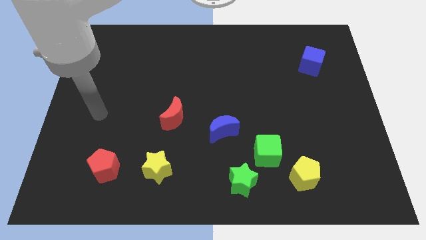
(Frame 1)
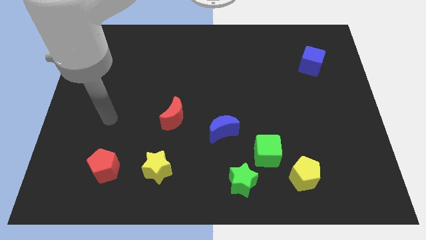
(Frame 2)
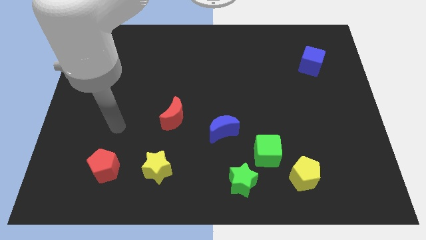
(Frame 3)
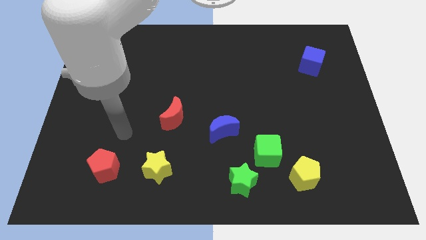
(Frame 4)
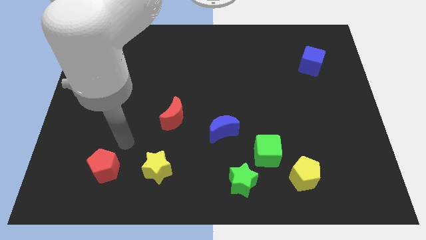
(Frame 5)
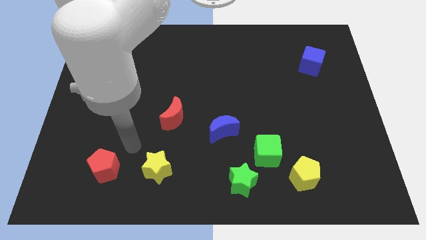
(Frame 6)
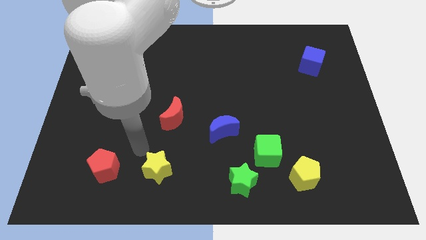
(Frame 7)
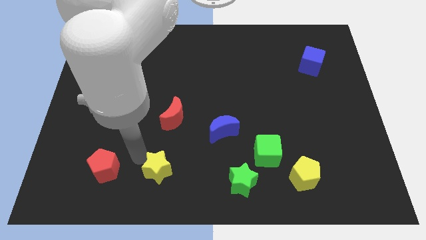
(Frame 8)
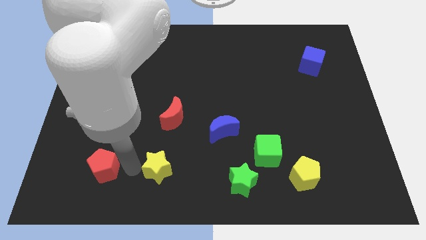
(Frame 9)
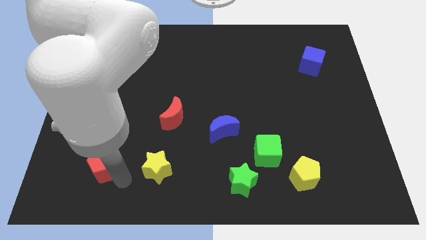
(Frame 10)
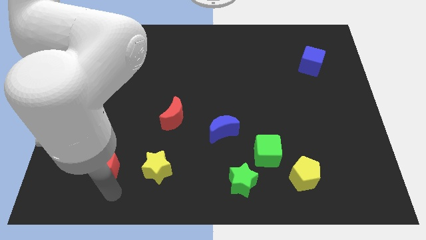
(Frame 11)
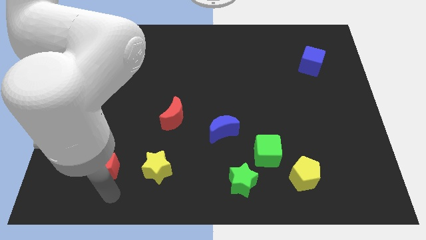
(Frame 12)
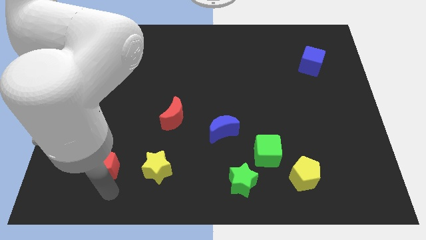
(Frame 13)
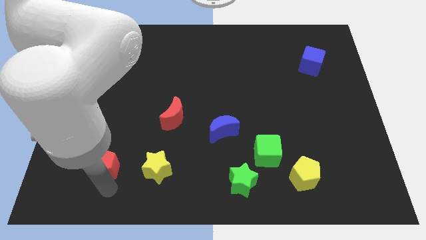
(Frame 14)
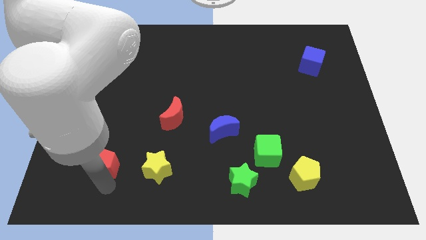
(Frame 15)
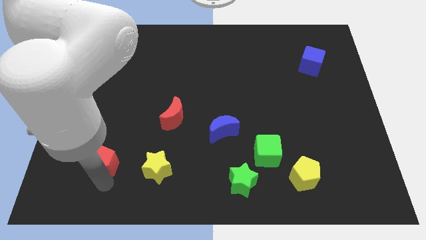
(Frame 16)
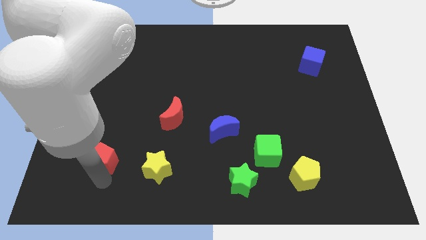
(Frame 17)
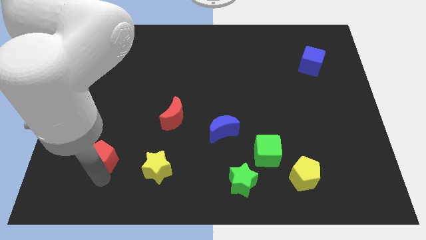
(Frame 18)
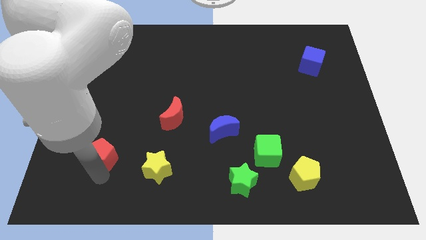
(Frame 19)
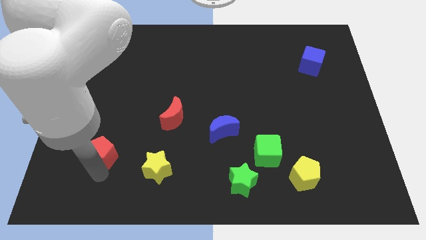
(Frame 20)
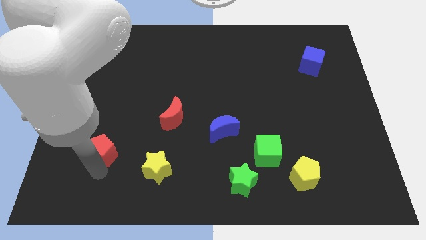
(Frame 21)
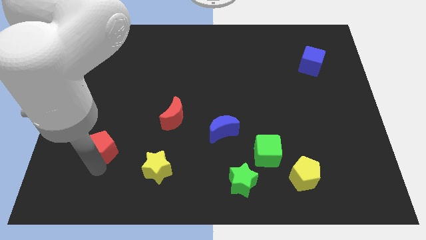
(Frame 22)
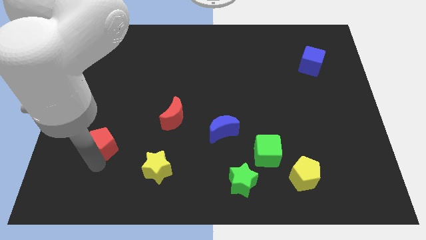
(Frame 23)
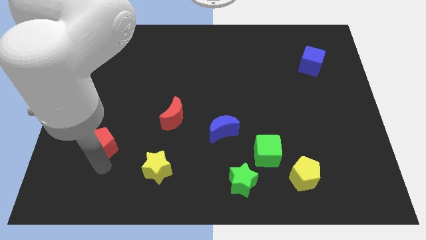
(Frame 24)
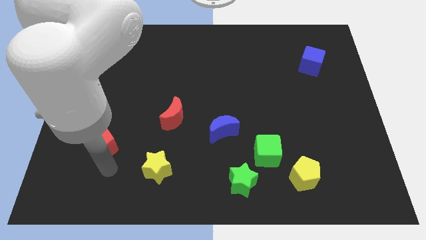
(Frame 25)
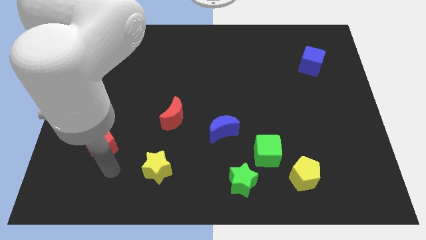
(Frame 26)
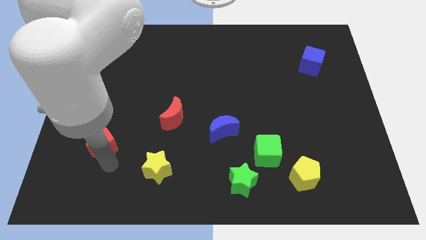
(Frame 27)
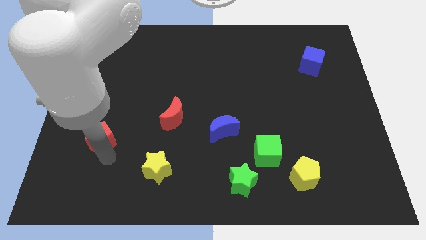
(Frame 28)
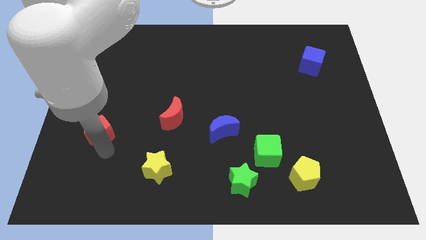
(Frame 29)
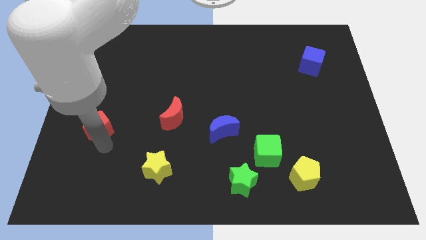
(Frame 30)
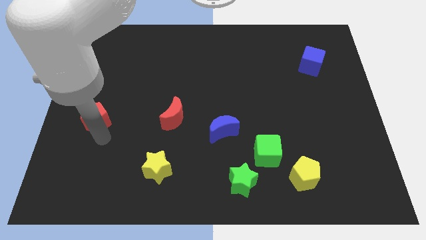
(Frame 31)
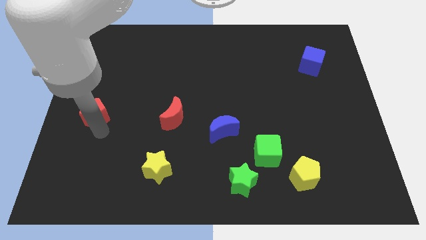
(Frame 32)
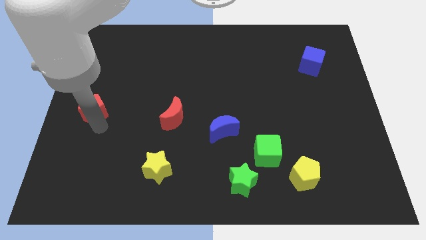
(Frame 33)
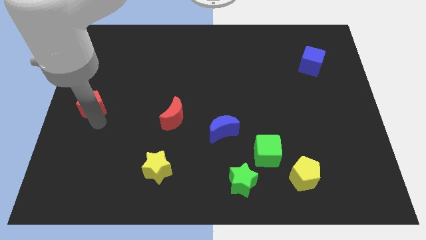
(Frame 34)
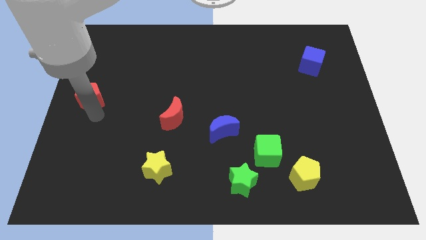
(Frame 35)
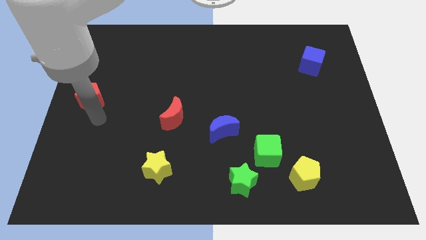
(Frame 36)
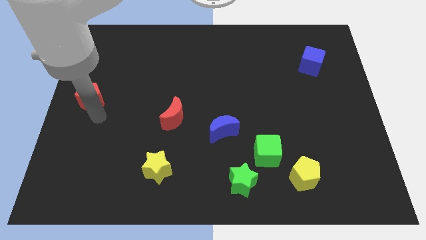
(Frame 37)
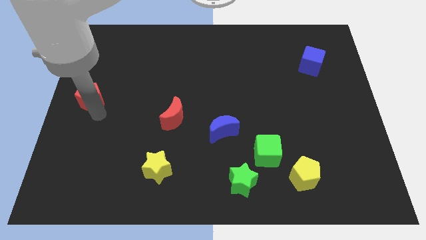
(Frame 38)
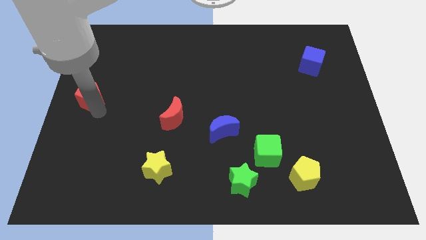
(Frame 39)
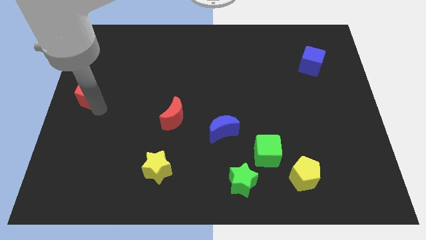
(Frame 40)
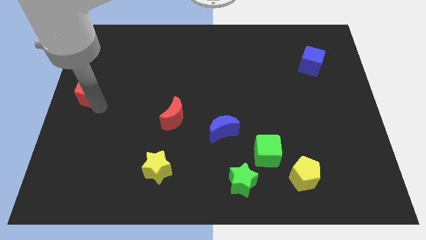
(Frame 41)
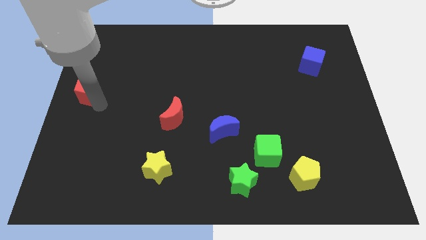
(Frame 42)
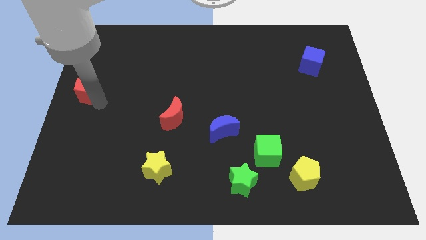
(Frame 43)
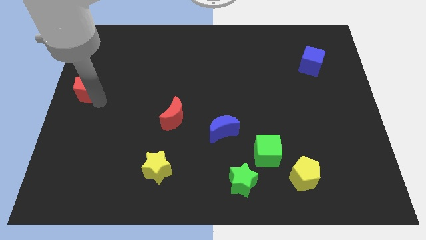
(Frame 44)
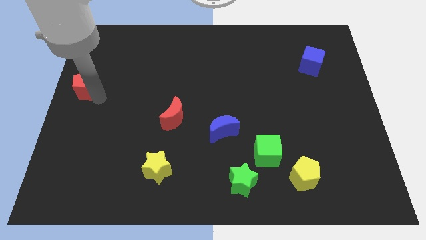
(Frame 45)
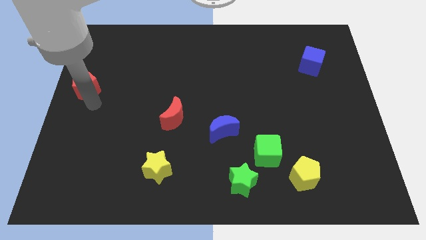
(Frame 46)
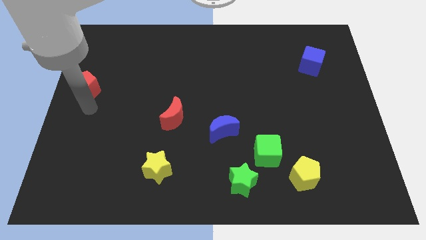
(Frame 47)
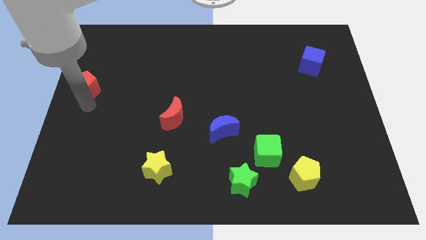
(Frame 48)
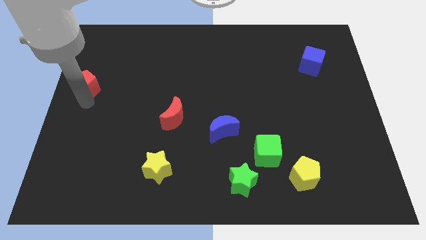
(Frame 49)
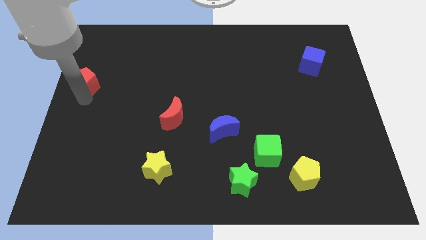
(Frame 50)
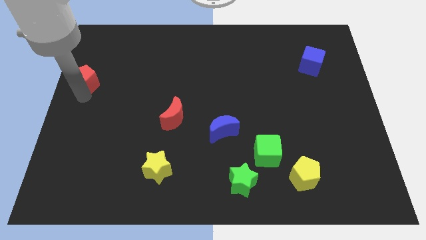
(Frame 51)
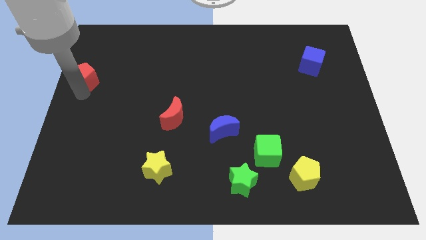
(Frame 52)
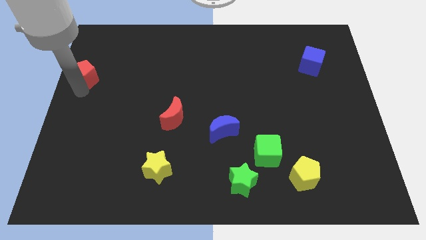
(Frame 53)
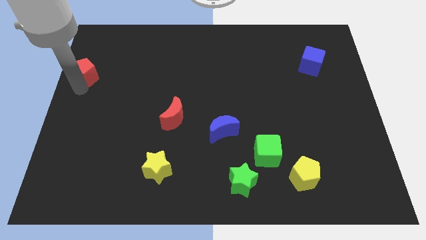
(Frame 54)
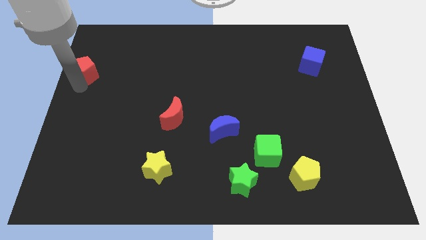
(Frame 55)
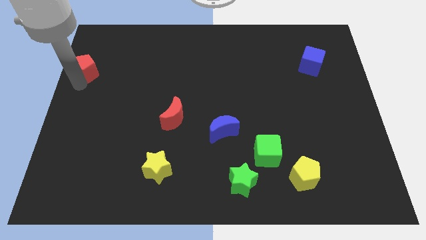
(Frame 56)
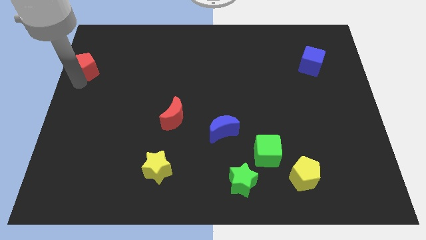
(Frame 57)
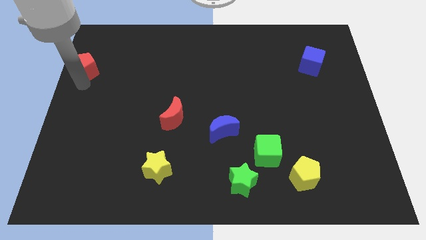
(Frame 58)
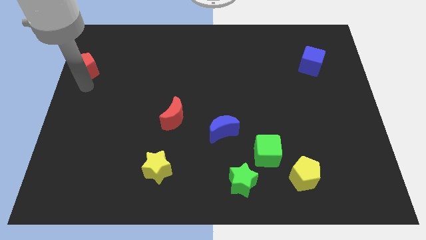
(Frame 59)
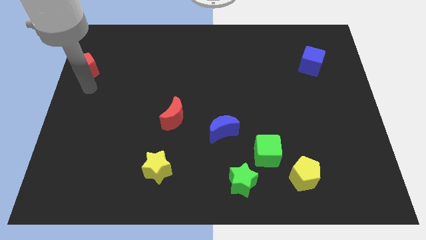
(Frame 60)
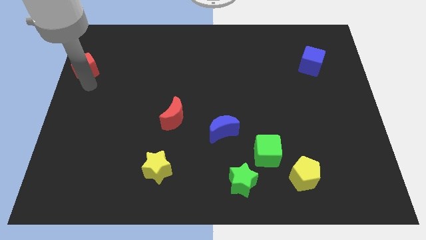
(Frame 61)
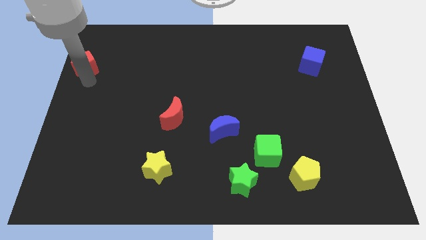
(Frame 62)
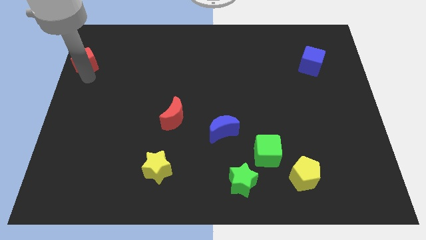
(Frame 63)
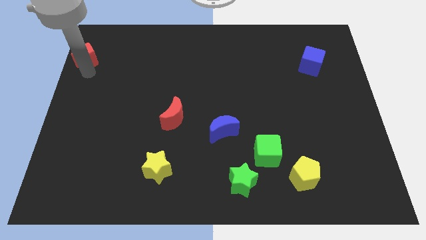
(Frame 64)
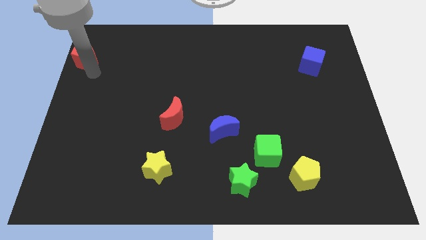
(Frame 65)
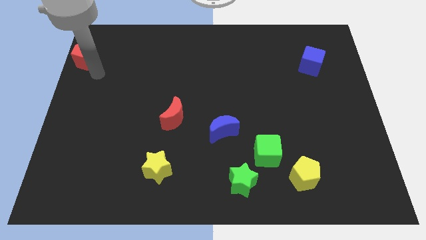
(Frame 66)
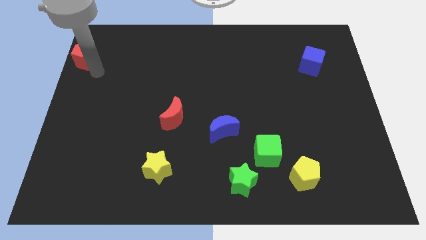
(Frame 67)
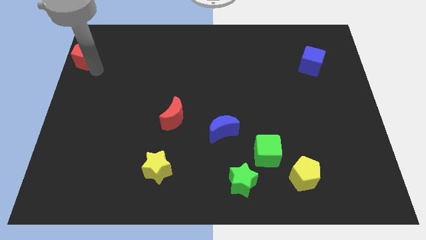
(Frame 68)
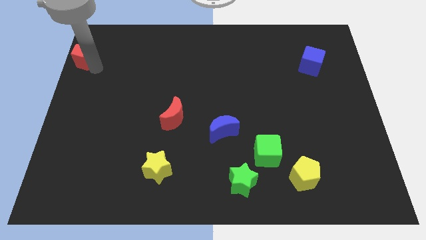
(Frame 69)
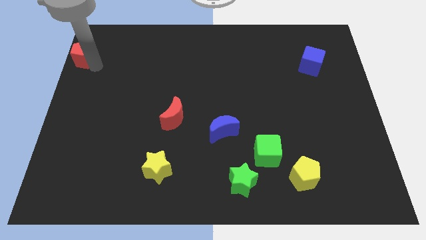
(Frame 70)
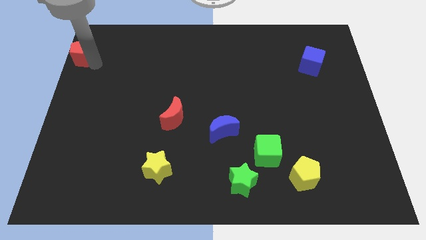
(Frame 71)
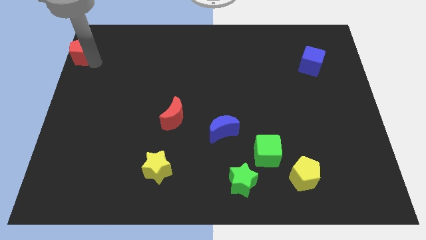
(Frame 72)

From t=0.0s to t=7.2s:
slide the red pentagon to the top left corner

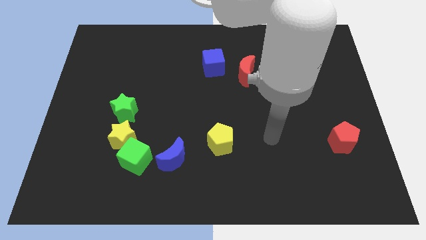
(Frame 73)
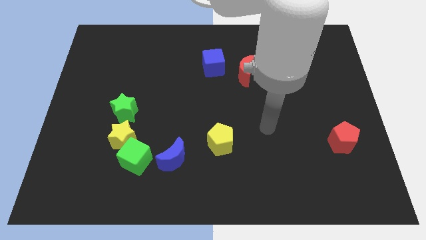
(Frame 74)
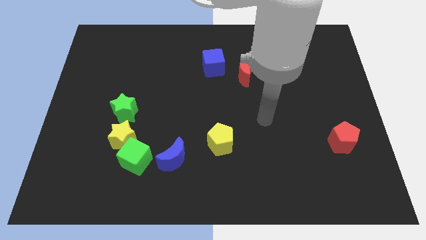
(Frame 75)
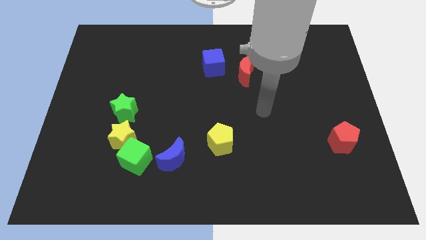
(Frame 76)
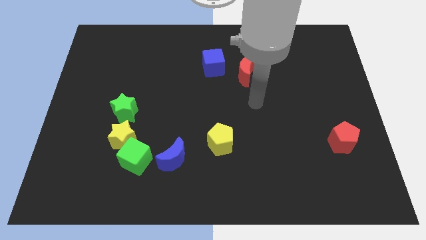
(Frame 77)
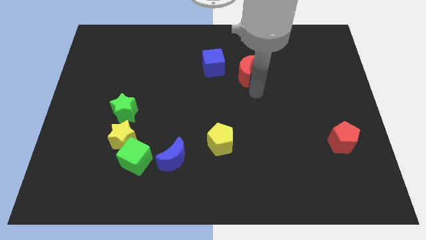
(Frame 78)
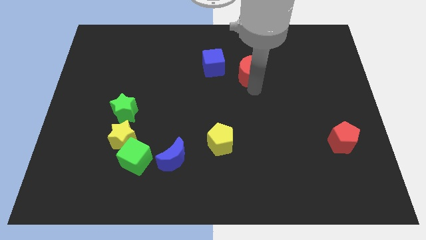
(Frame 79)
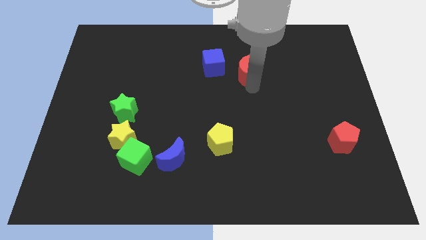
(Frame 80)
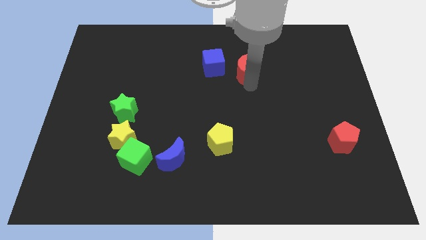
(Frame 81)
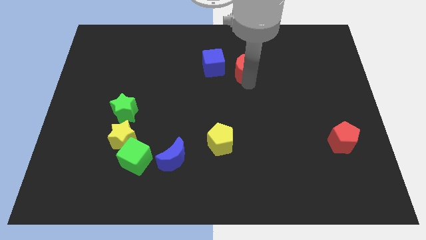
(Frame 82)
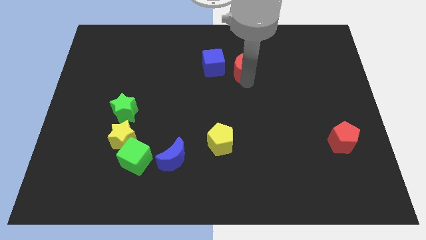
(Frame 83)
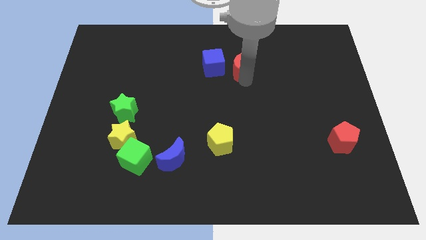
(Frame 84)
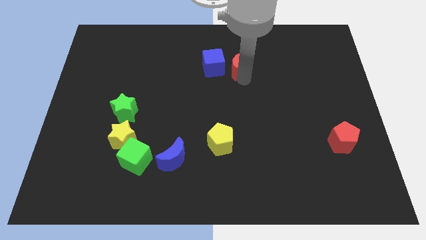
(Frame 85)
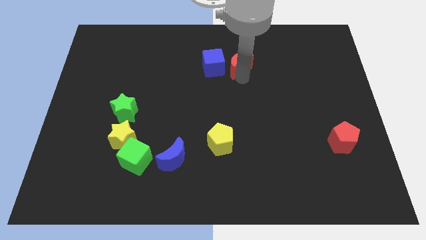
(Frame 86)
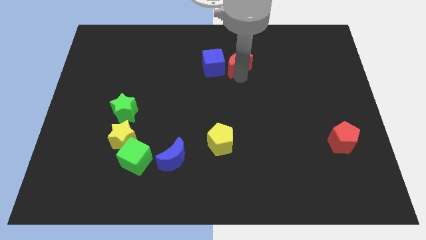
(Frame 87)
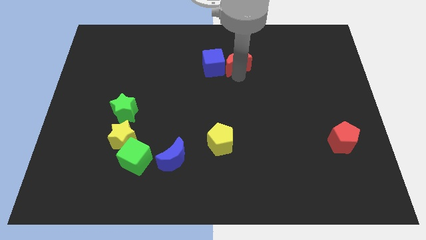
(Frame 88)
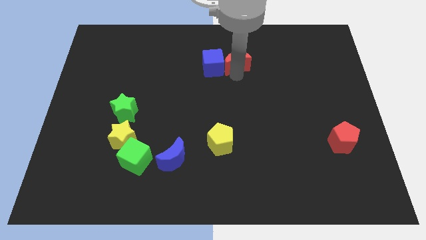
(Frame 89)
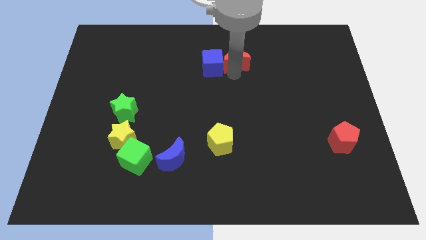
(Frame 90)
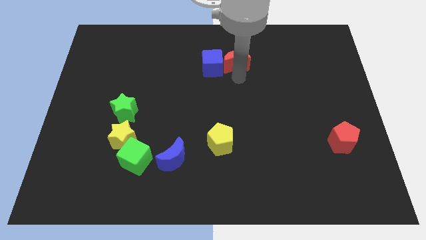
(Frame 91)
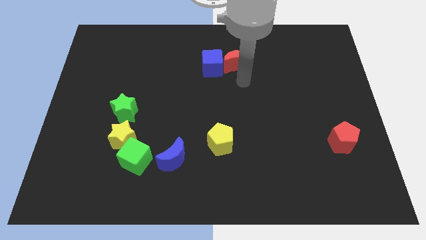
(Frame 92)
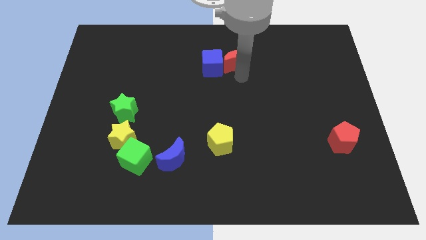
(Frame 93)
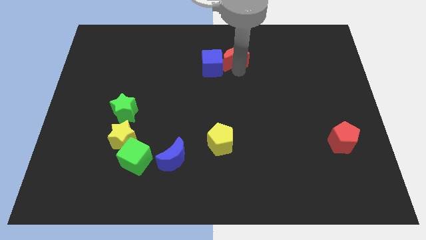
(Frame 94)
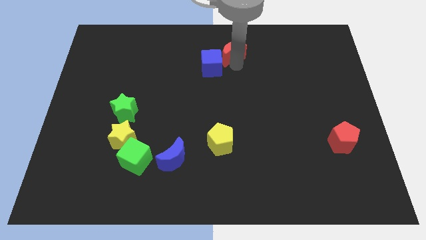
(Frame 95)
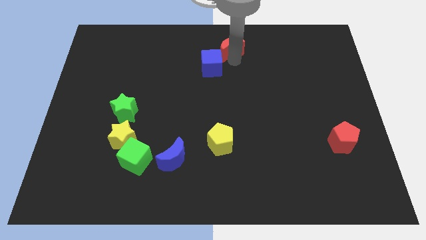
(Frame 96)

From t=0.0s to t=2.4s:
slide the red moon to the towards your base
